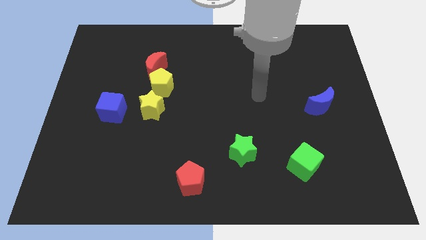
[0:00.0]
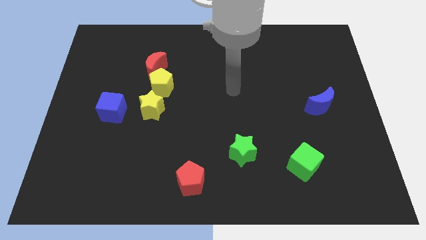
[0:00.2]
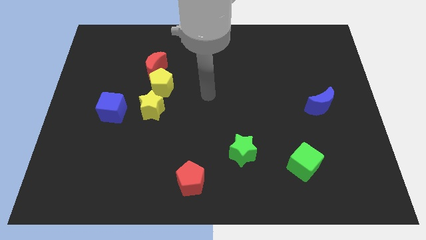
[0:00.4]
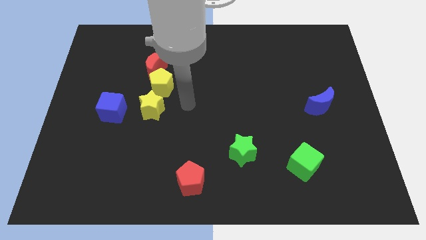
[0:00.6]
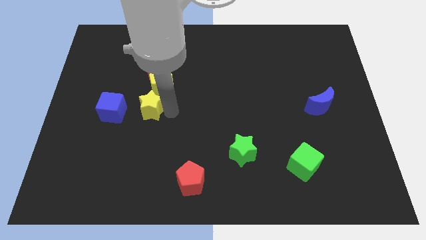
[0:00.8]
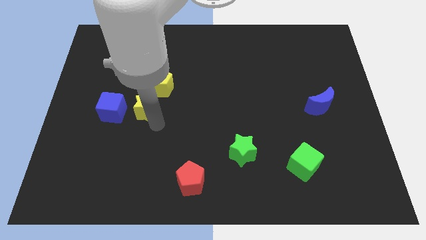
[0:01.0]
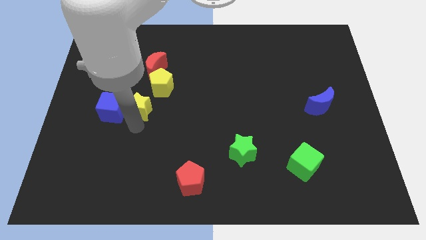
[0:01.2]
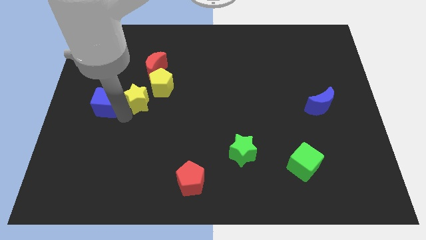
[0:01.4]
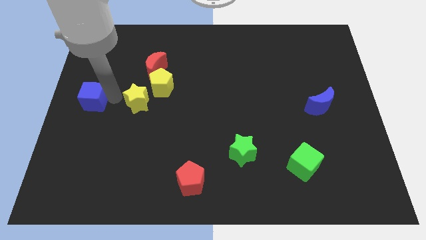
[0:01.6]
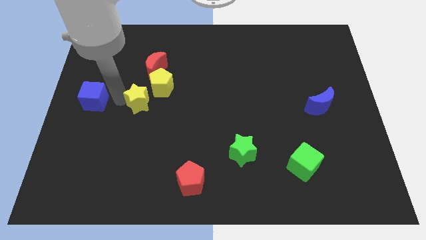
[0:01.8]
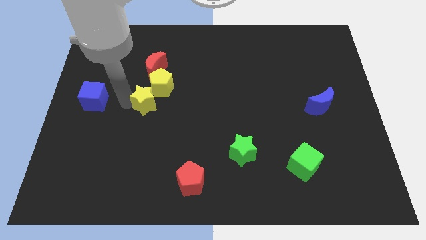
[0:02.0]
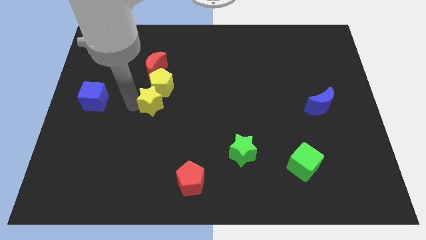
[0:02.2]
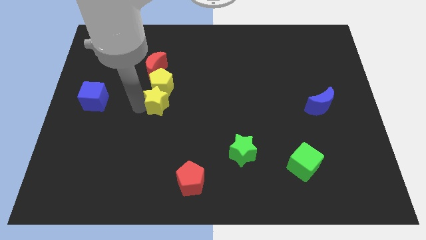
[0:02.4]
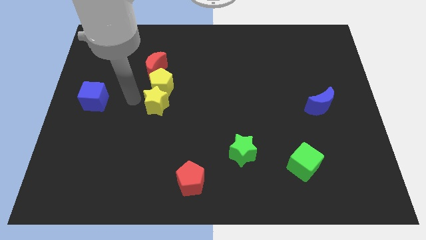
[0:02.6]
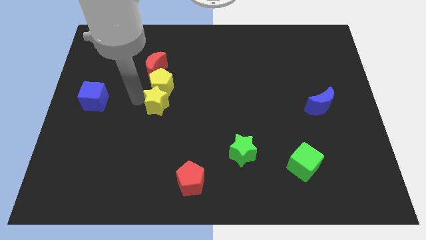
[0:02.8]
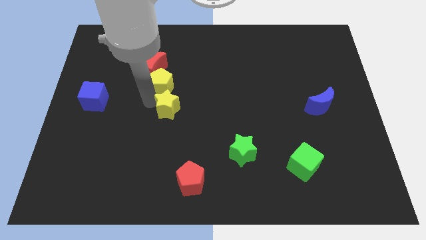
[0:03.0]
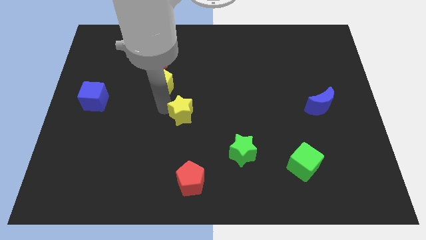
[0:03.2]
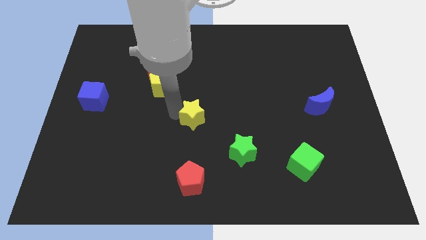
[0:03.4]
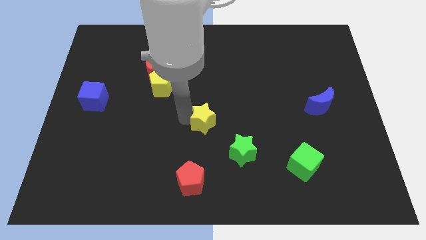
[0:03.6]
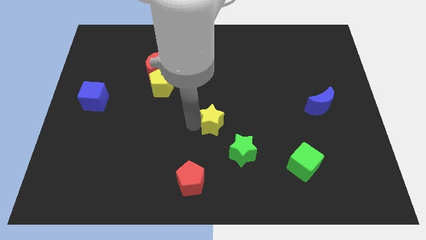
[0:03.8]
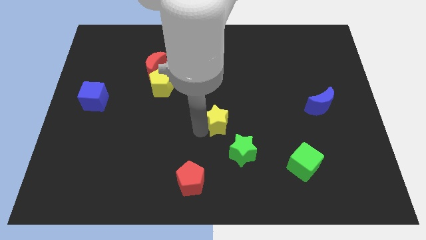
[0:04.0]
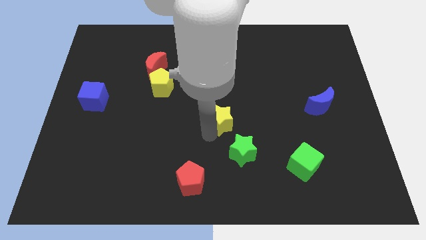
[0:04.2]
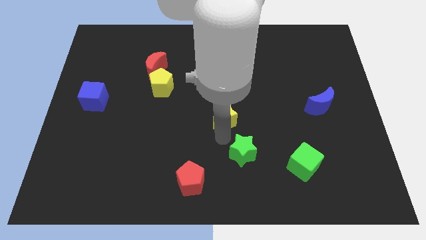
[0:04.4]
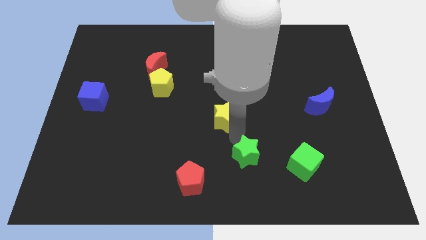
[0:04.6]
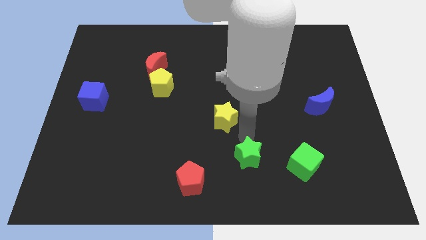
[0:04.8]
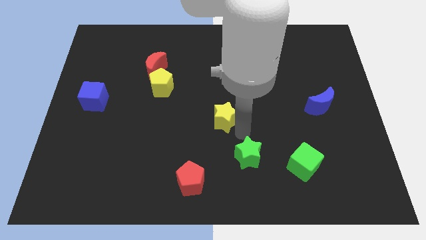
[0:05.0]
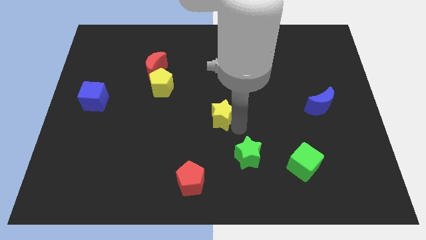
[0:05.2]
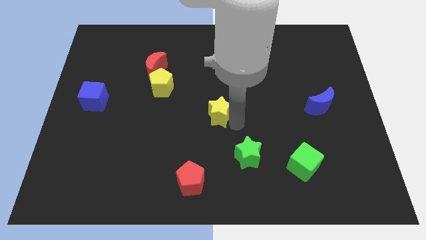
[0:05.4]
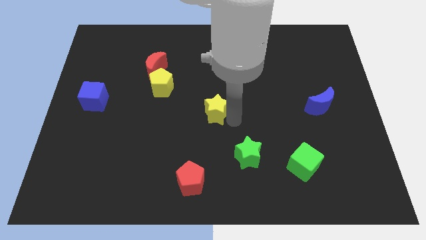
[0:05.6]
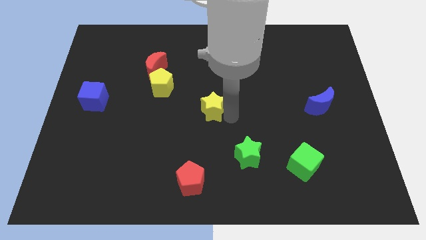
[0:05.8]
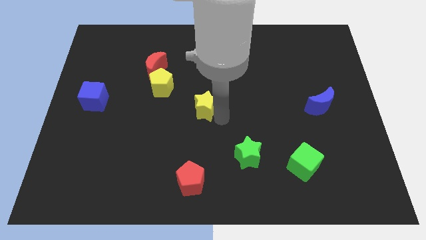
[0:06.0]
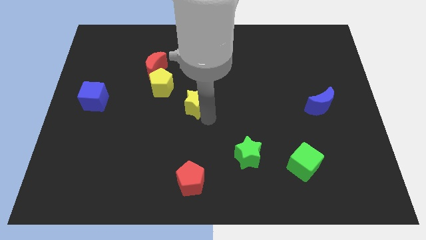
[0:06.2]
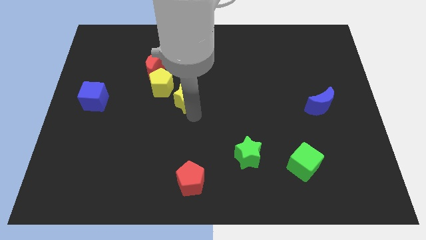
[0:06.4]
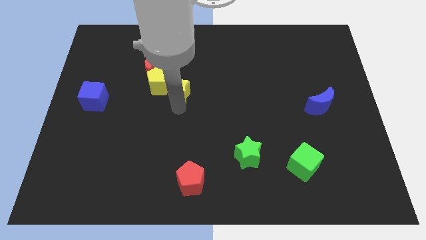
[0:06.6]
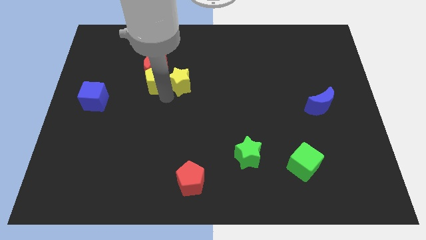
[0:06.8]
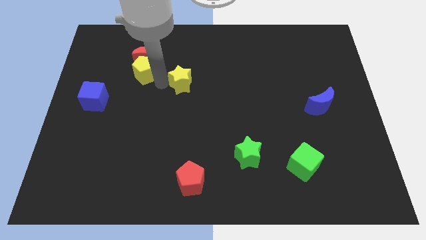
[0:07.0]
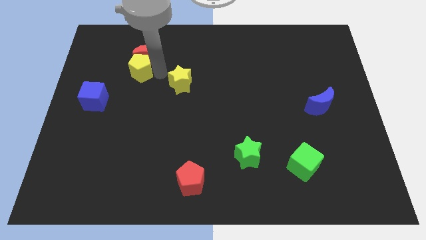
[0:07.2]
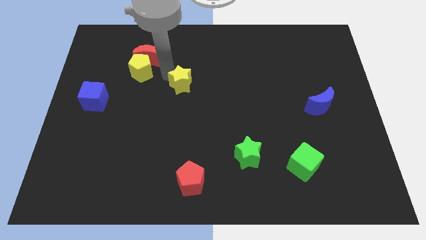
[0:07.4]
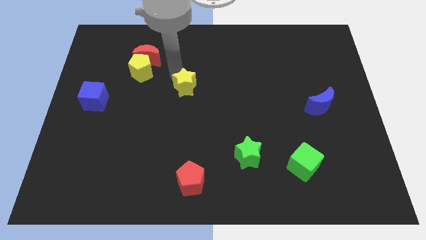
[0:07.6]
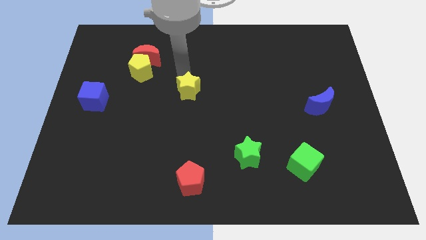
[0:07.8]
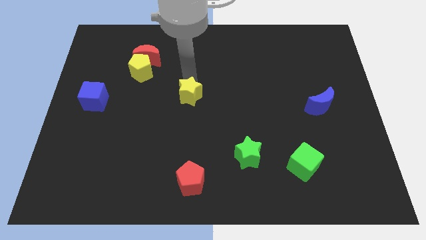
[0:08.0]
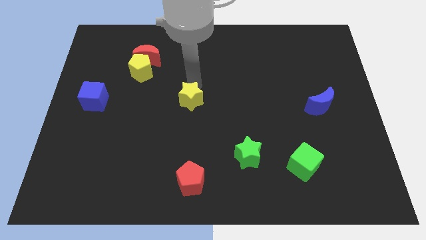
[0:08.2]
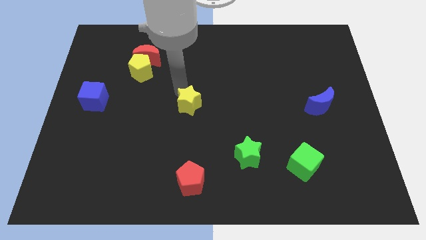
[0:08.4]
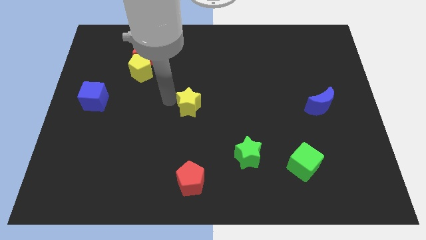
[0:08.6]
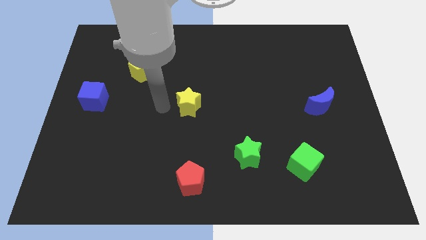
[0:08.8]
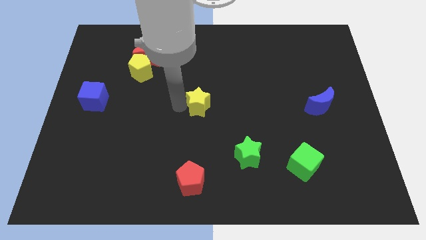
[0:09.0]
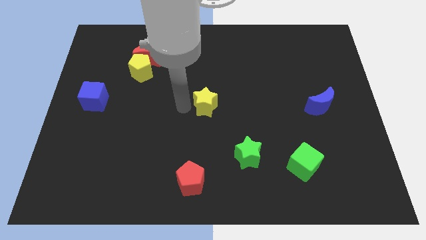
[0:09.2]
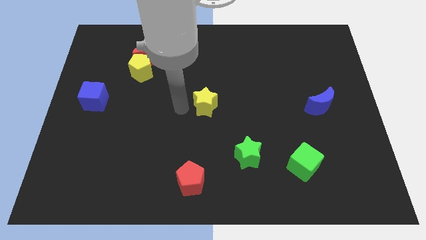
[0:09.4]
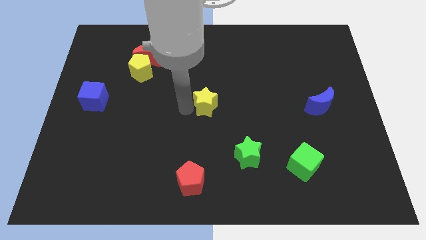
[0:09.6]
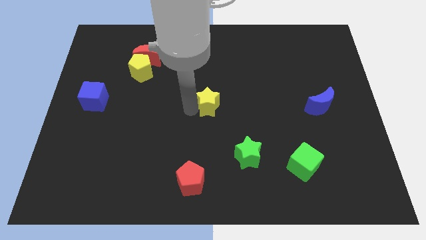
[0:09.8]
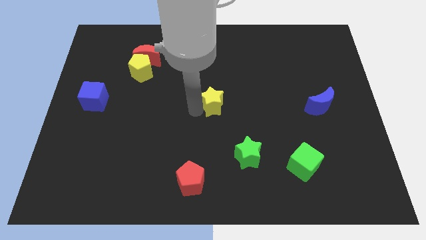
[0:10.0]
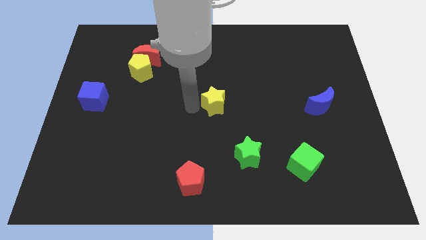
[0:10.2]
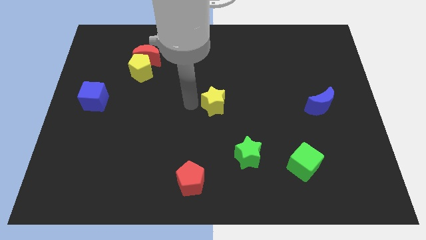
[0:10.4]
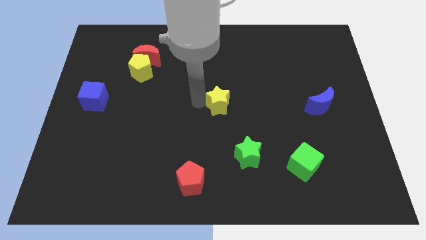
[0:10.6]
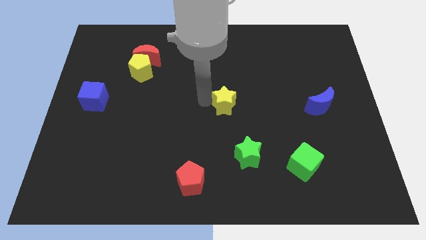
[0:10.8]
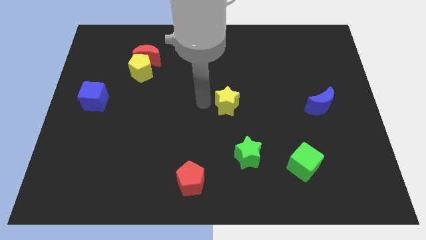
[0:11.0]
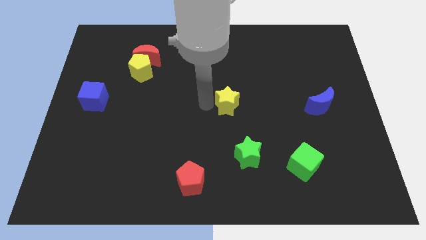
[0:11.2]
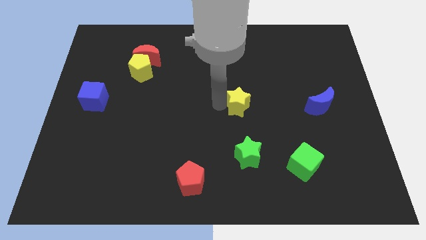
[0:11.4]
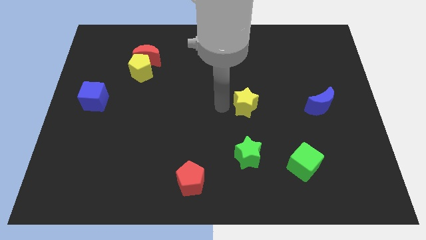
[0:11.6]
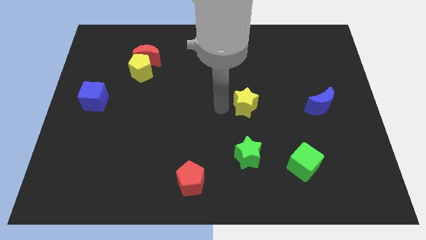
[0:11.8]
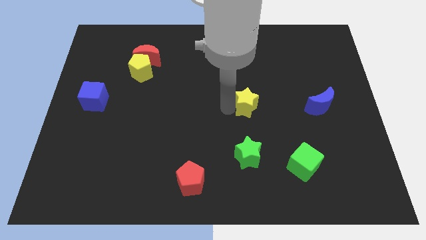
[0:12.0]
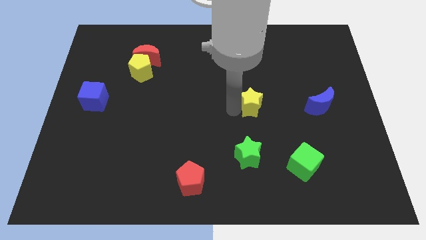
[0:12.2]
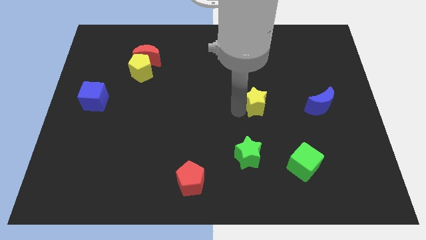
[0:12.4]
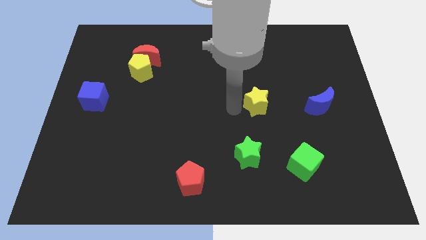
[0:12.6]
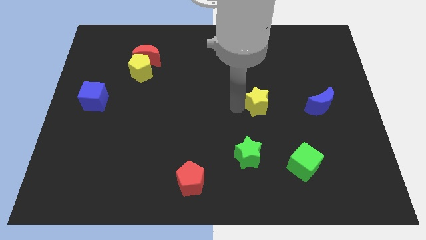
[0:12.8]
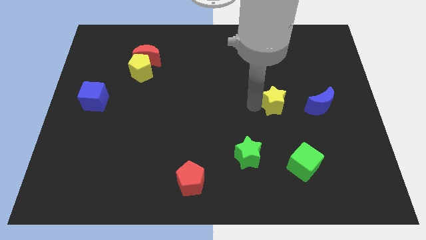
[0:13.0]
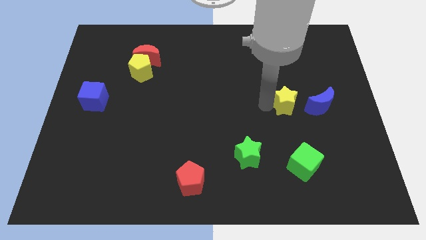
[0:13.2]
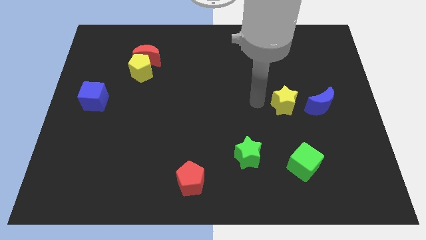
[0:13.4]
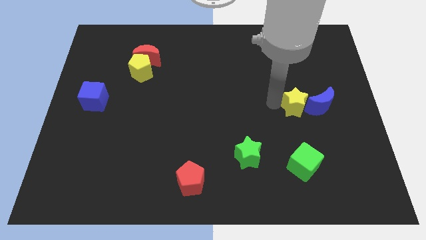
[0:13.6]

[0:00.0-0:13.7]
slide the yellow star towards the blue moon
